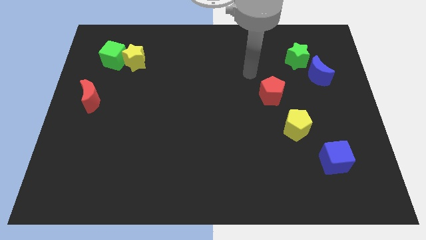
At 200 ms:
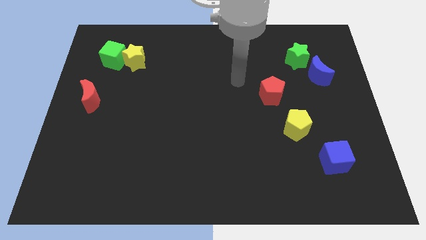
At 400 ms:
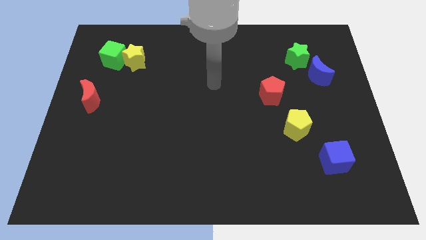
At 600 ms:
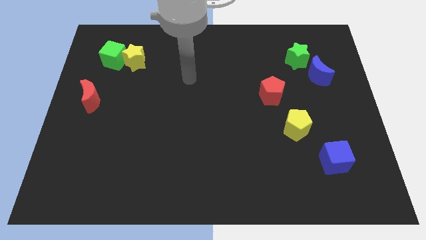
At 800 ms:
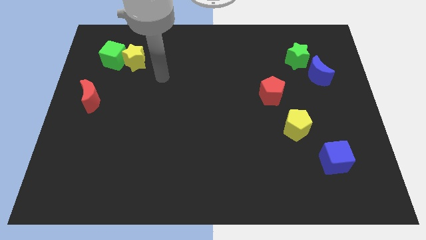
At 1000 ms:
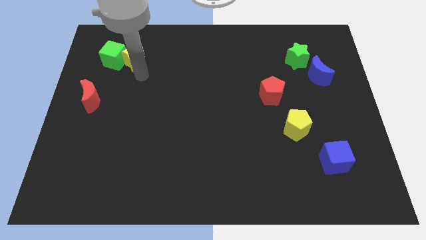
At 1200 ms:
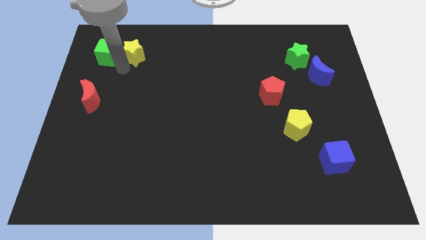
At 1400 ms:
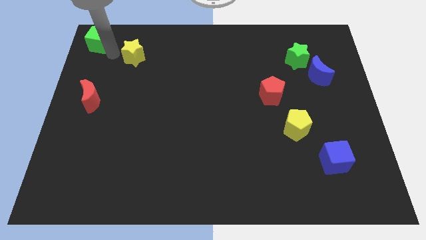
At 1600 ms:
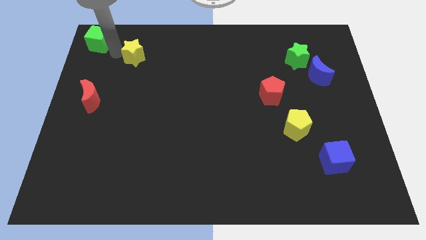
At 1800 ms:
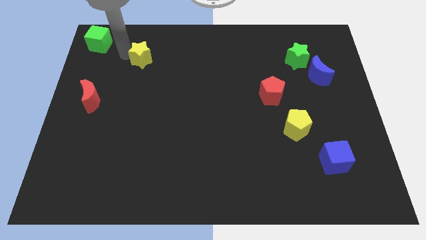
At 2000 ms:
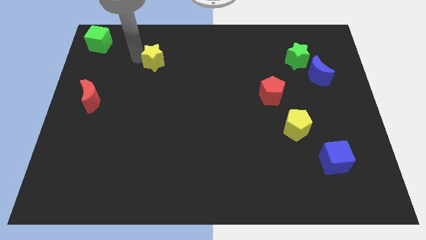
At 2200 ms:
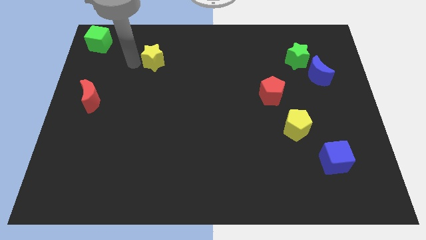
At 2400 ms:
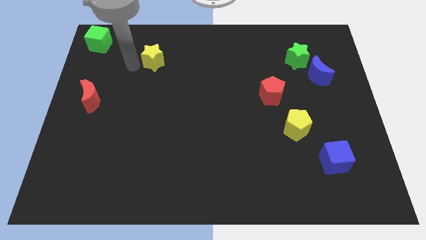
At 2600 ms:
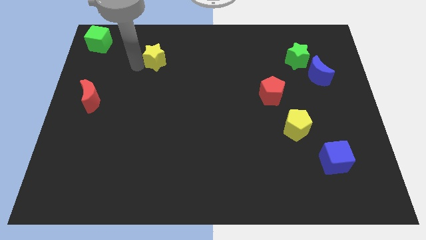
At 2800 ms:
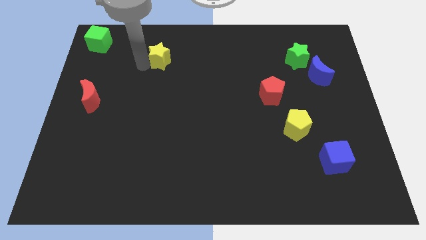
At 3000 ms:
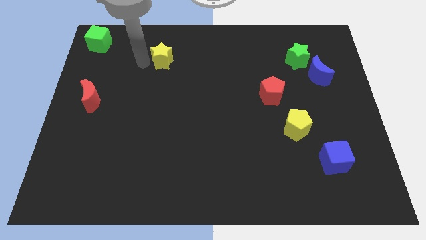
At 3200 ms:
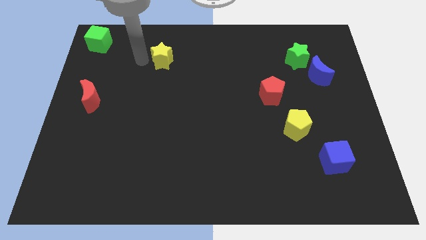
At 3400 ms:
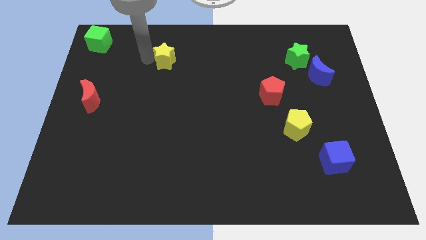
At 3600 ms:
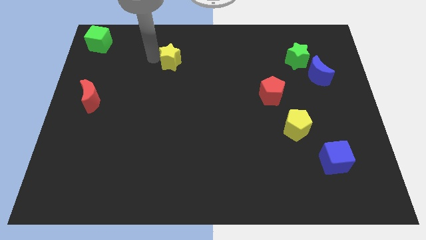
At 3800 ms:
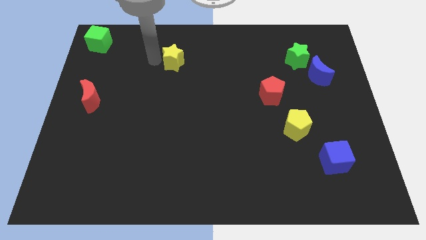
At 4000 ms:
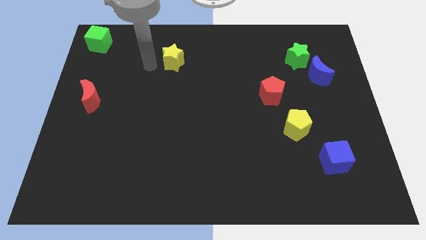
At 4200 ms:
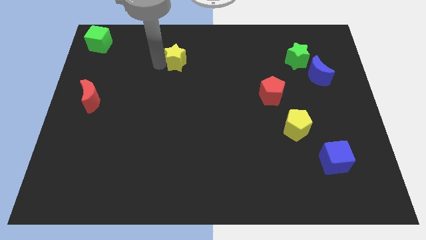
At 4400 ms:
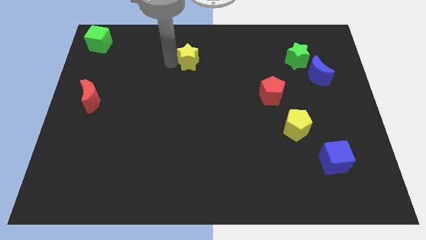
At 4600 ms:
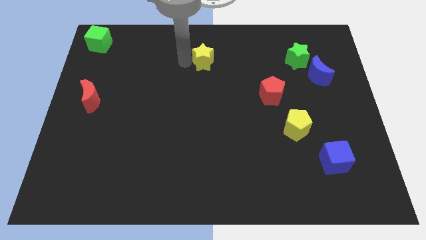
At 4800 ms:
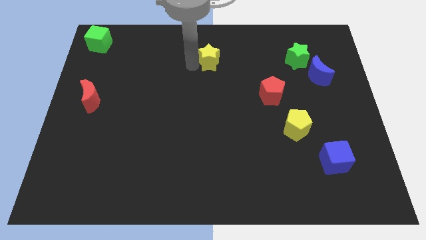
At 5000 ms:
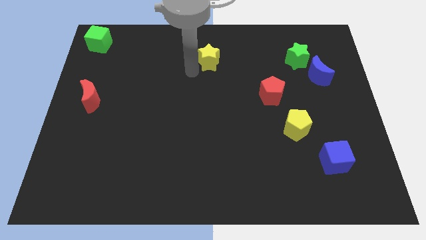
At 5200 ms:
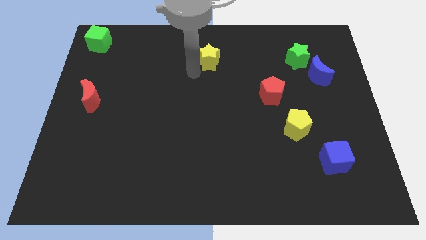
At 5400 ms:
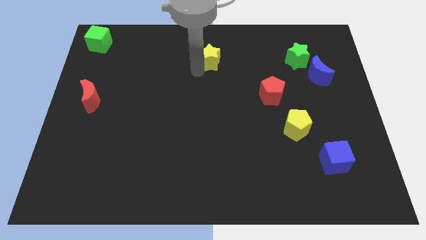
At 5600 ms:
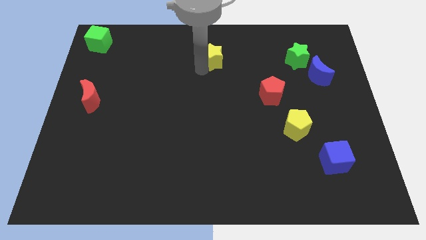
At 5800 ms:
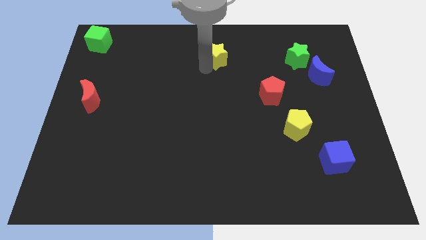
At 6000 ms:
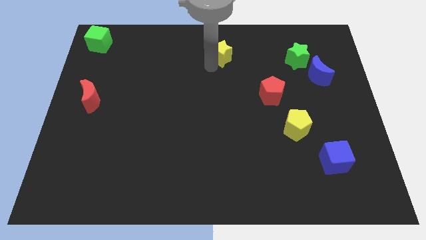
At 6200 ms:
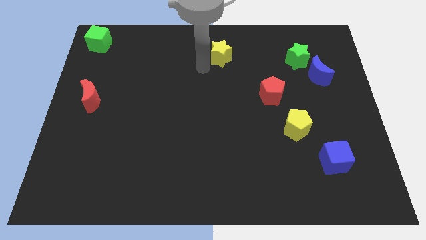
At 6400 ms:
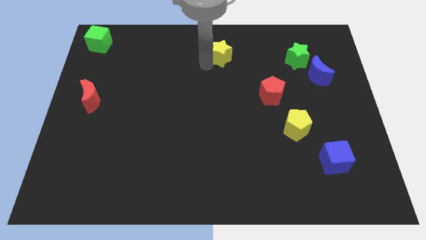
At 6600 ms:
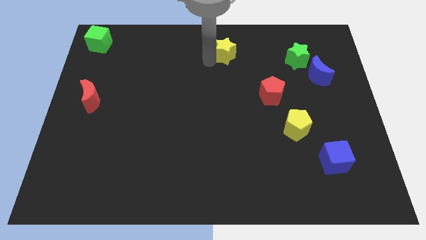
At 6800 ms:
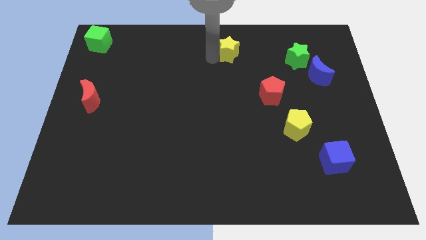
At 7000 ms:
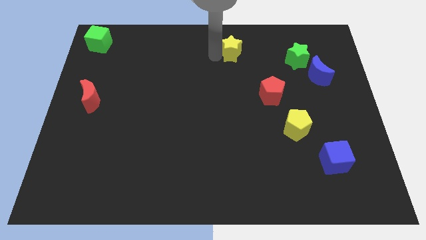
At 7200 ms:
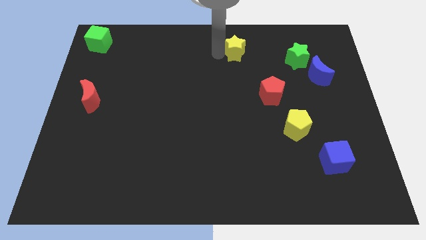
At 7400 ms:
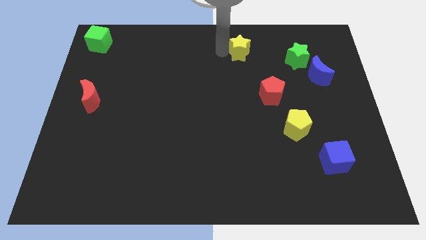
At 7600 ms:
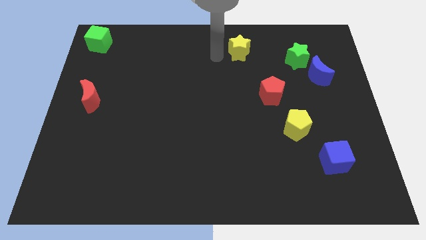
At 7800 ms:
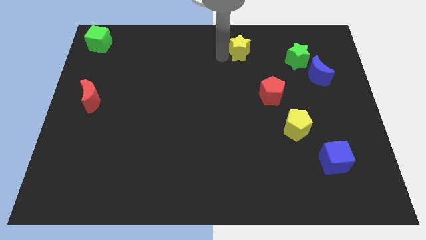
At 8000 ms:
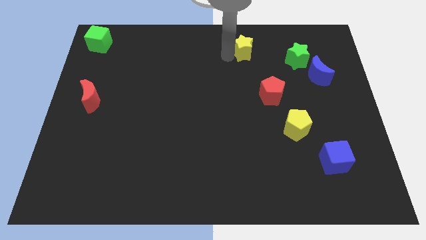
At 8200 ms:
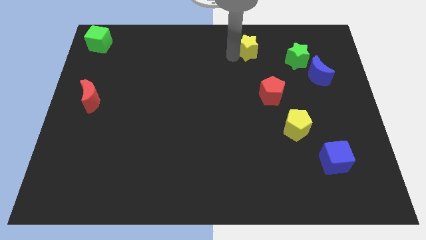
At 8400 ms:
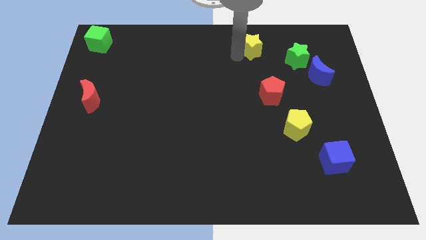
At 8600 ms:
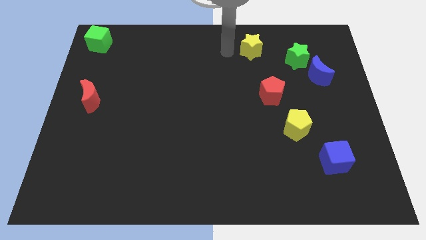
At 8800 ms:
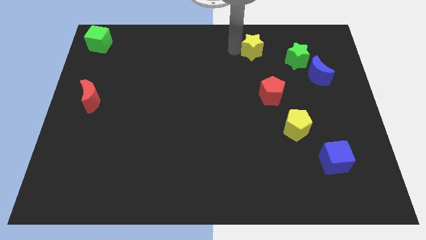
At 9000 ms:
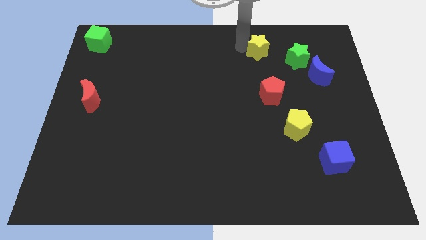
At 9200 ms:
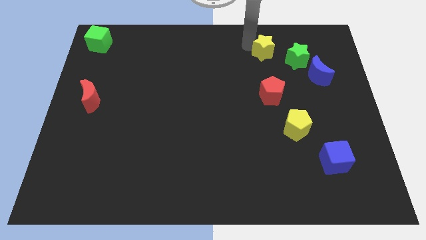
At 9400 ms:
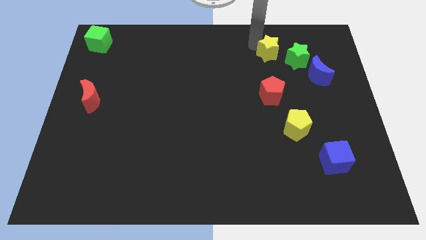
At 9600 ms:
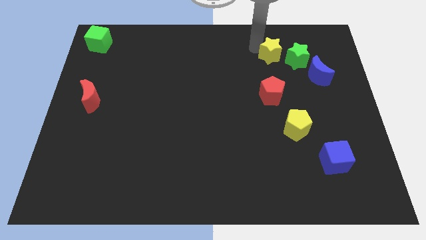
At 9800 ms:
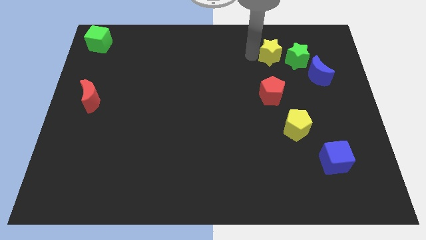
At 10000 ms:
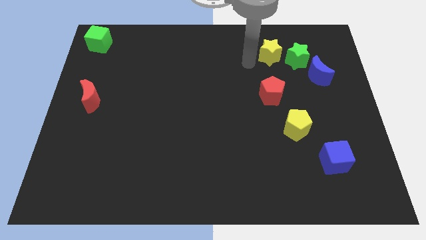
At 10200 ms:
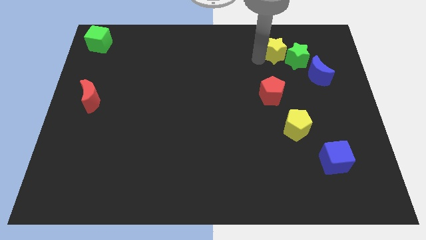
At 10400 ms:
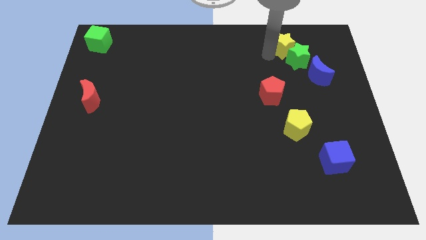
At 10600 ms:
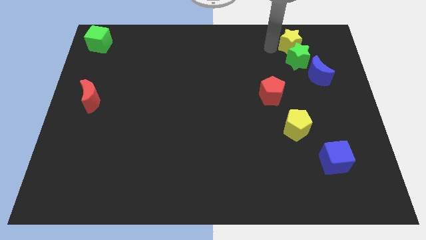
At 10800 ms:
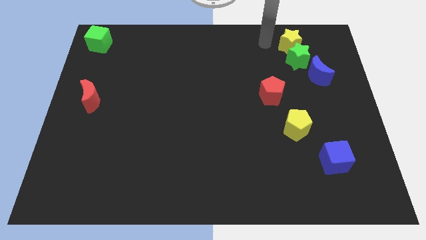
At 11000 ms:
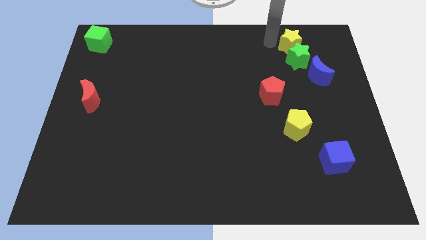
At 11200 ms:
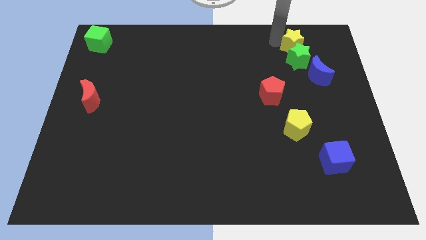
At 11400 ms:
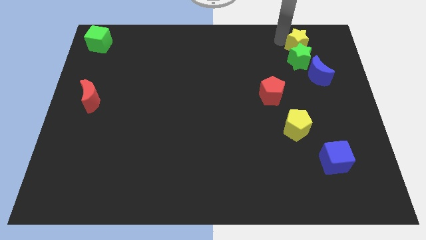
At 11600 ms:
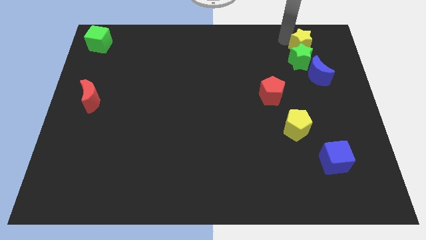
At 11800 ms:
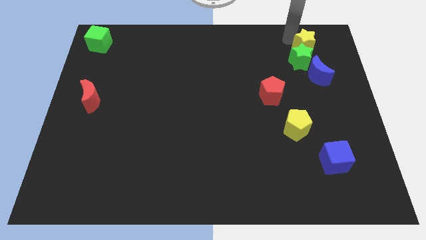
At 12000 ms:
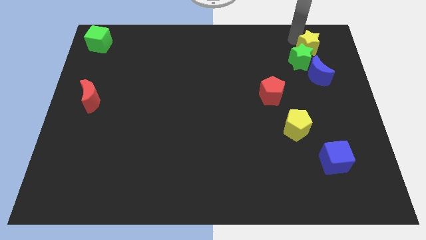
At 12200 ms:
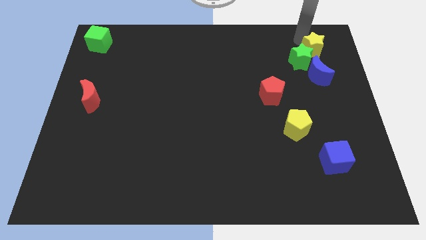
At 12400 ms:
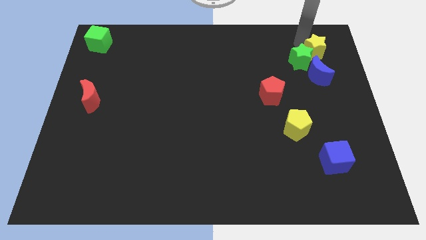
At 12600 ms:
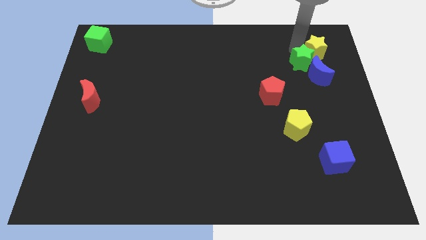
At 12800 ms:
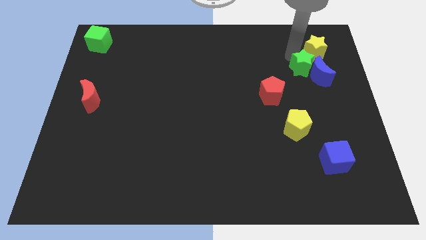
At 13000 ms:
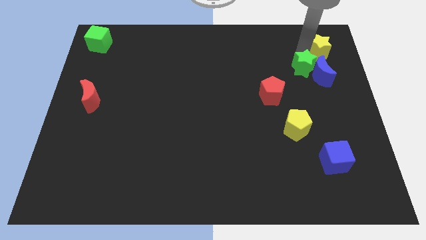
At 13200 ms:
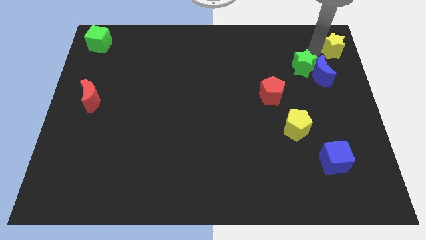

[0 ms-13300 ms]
move the yellow star to the top right corner
